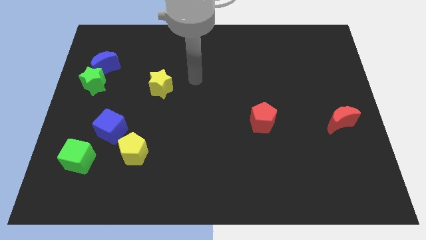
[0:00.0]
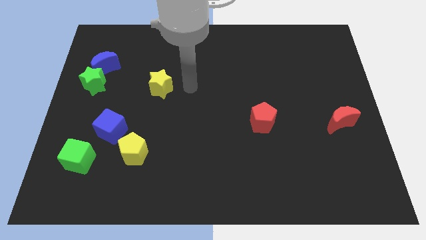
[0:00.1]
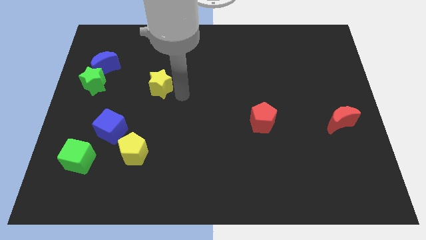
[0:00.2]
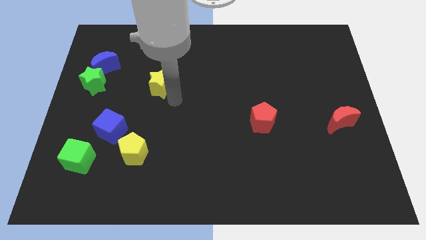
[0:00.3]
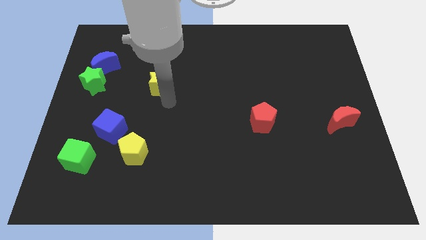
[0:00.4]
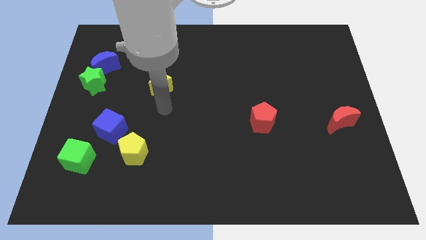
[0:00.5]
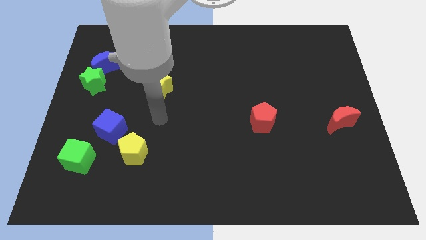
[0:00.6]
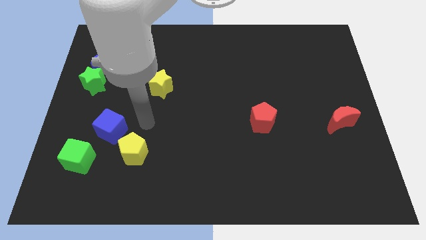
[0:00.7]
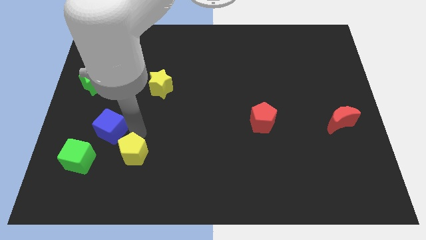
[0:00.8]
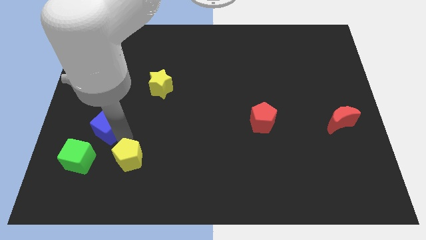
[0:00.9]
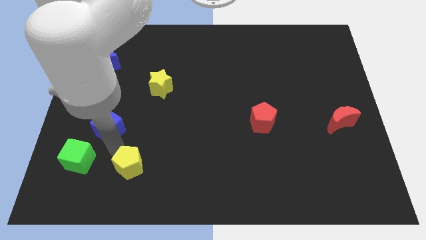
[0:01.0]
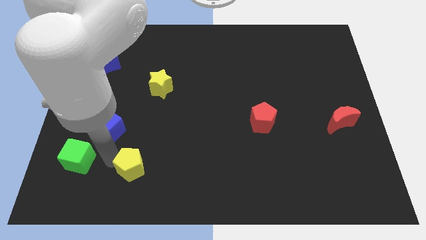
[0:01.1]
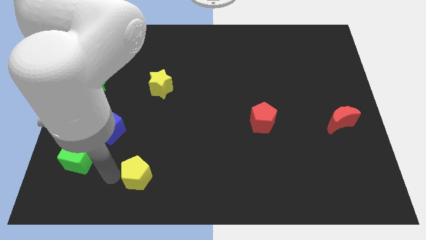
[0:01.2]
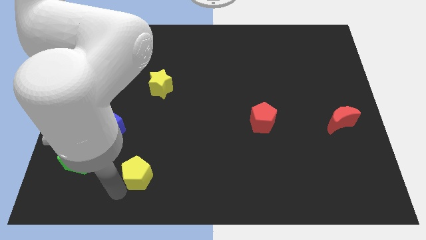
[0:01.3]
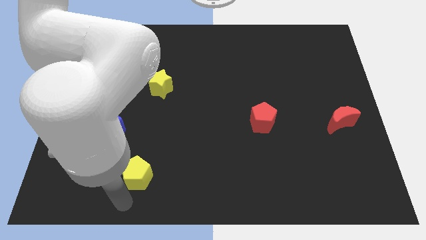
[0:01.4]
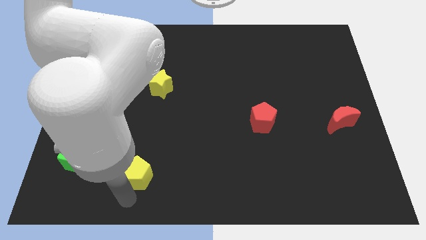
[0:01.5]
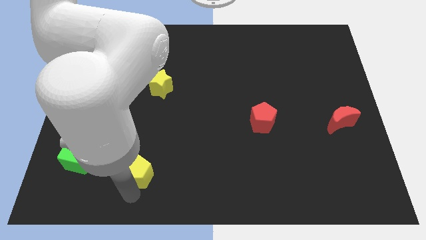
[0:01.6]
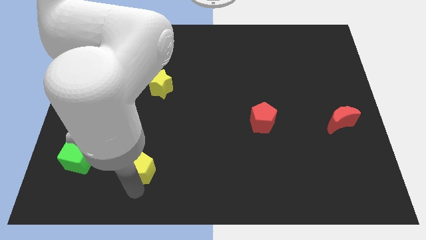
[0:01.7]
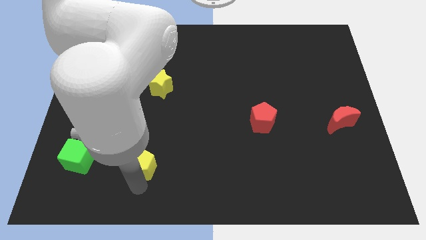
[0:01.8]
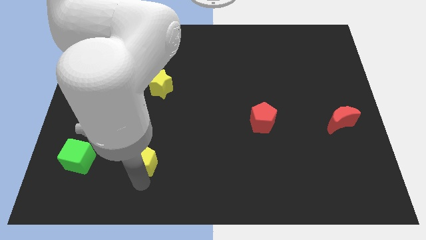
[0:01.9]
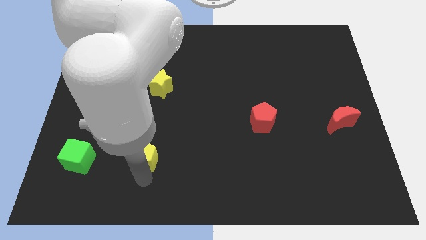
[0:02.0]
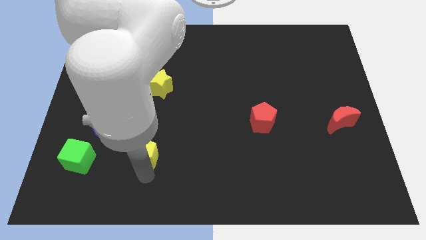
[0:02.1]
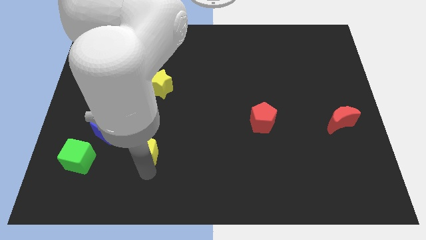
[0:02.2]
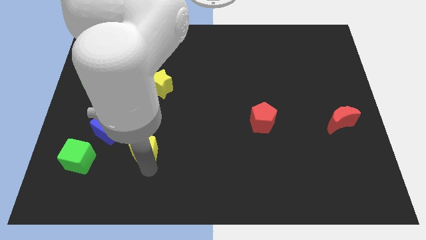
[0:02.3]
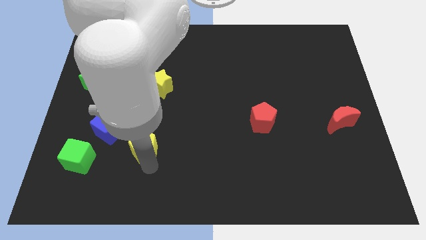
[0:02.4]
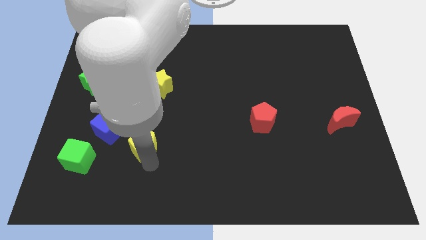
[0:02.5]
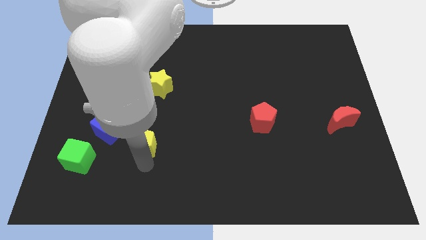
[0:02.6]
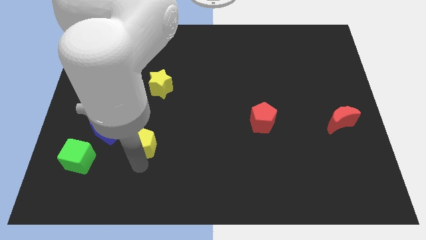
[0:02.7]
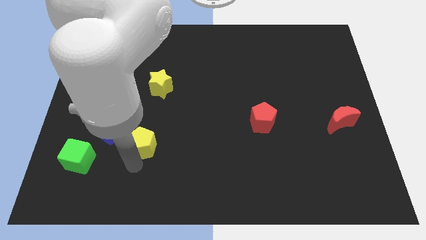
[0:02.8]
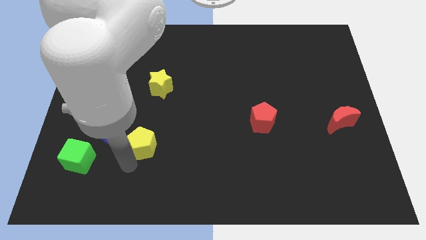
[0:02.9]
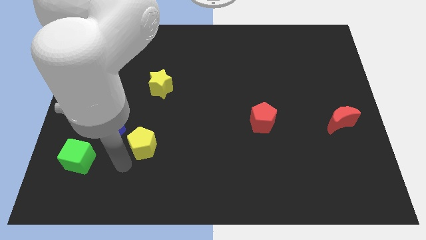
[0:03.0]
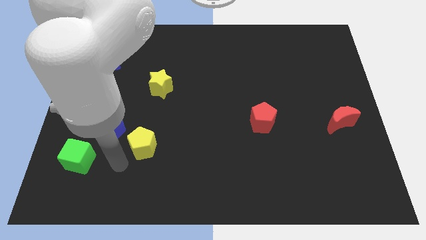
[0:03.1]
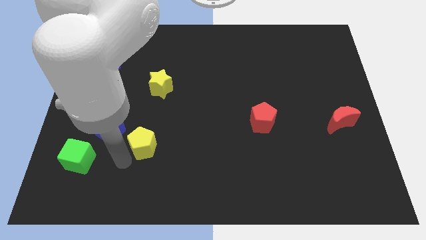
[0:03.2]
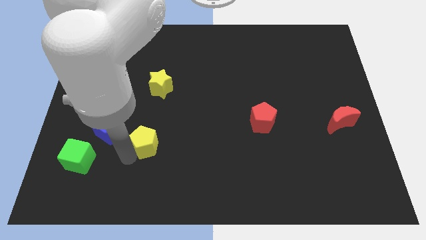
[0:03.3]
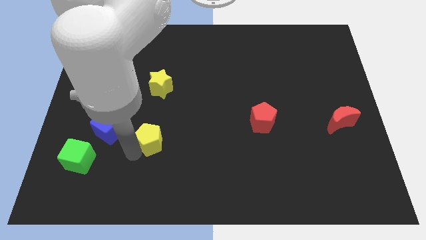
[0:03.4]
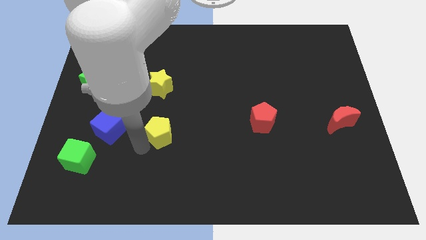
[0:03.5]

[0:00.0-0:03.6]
push the yellow pentagon upwards and then right slightly

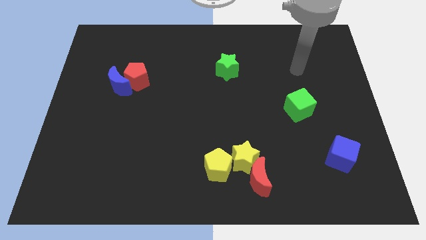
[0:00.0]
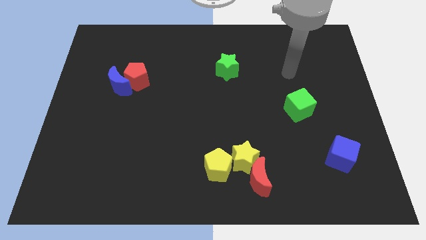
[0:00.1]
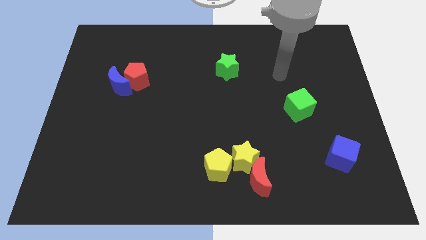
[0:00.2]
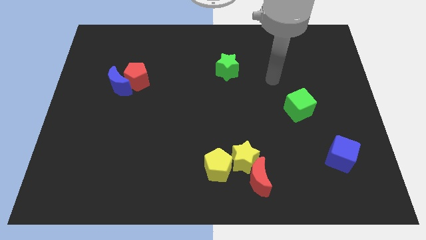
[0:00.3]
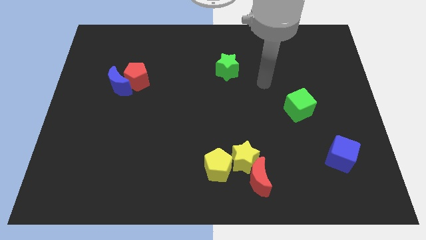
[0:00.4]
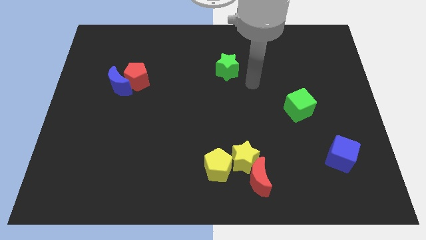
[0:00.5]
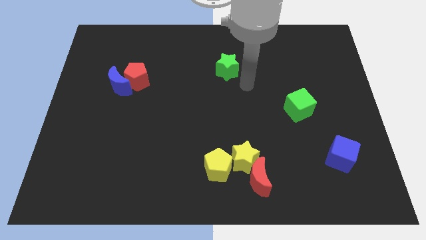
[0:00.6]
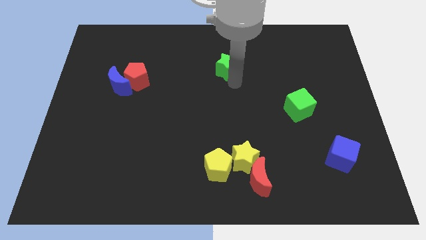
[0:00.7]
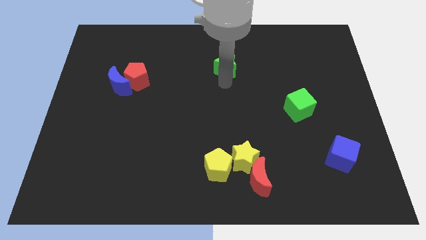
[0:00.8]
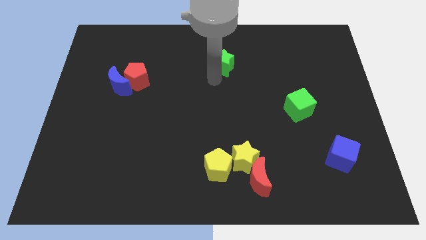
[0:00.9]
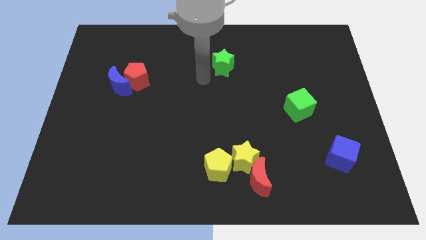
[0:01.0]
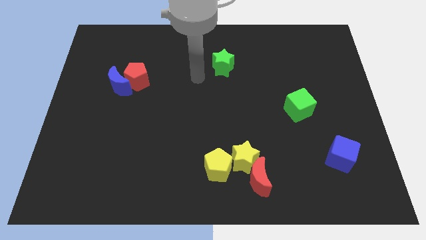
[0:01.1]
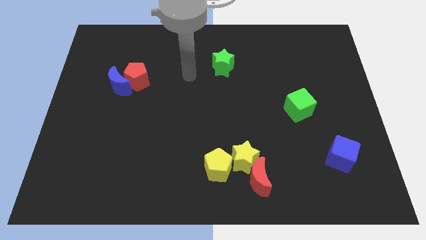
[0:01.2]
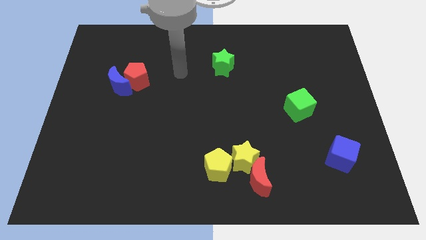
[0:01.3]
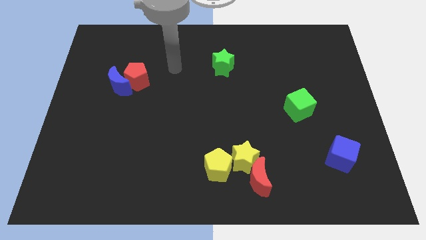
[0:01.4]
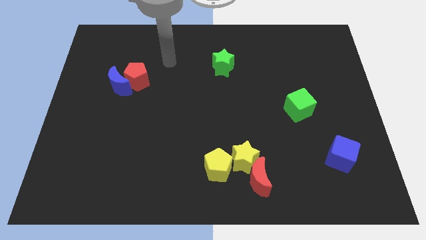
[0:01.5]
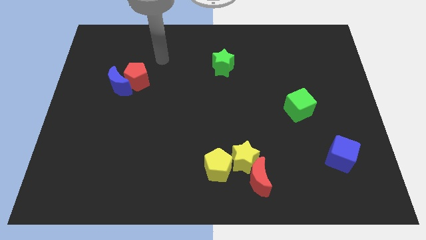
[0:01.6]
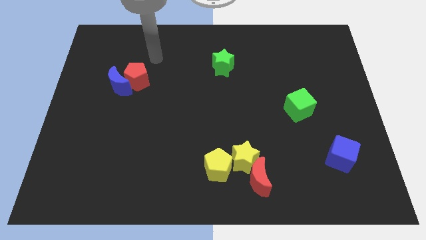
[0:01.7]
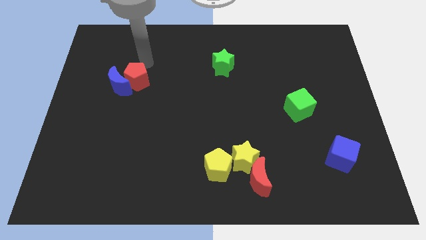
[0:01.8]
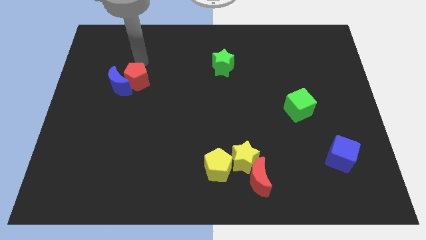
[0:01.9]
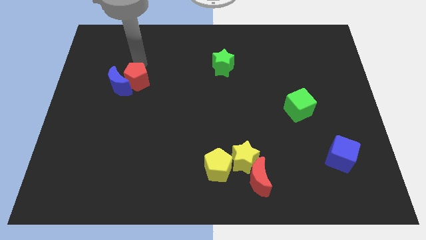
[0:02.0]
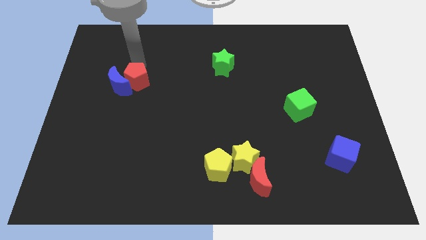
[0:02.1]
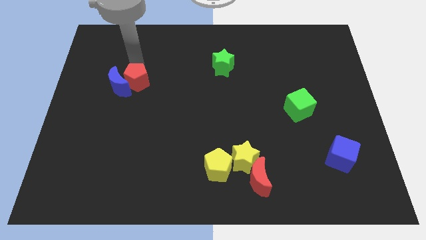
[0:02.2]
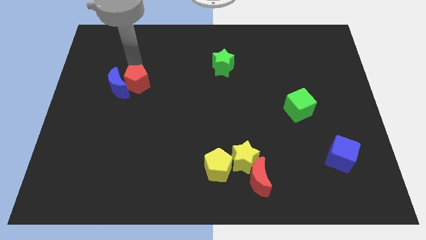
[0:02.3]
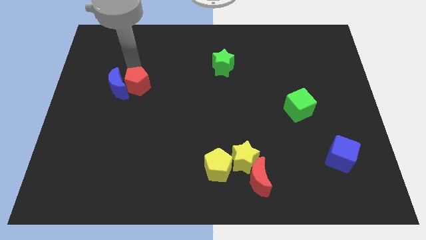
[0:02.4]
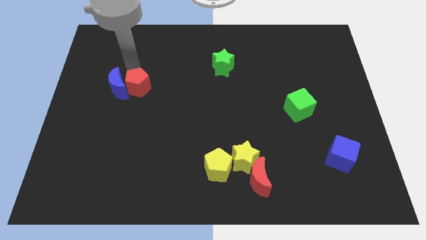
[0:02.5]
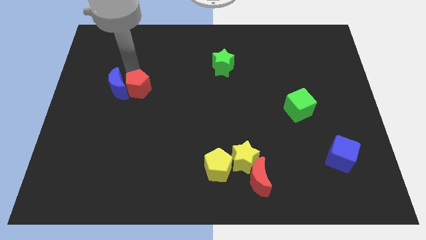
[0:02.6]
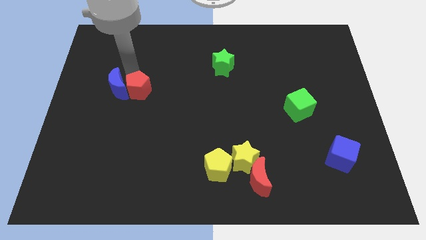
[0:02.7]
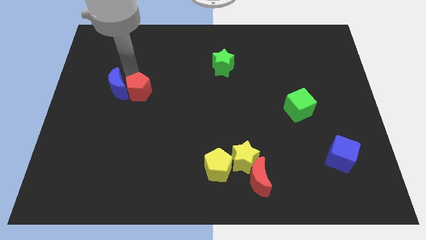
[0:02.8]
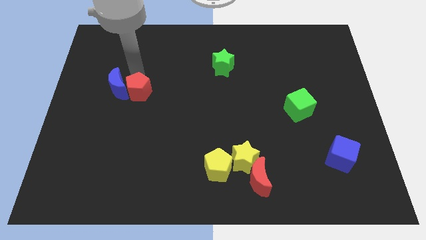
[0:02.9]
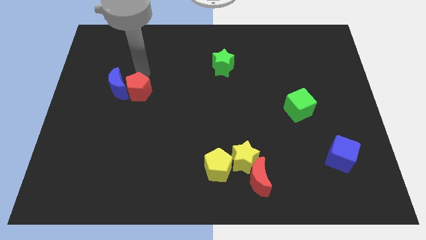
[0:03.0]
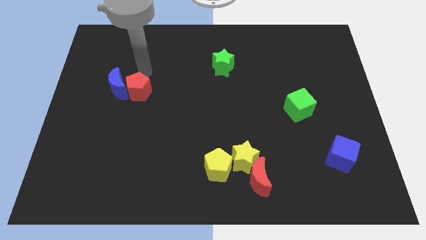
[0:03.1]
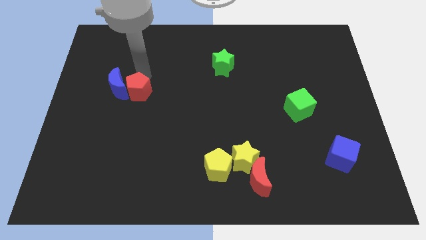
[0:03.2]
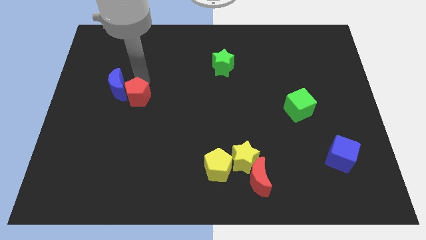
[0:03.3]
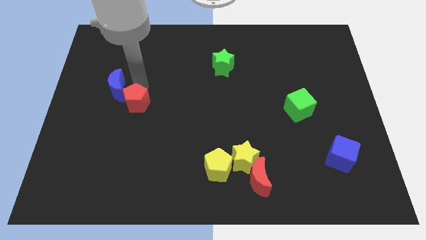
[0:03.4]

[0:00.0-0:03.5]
slide the red pentagon a little bit down

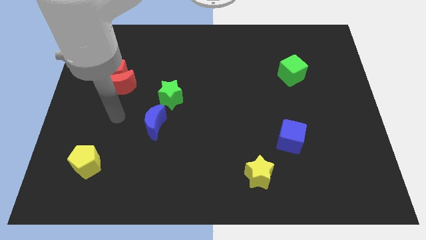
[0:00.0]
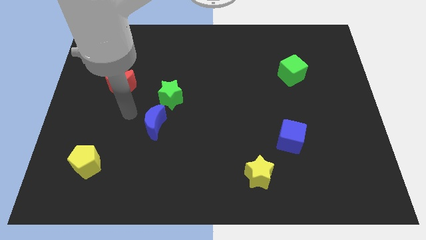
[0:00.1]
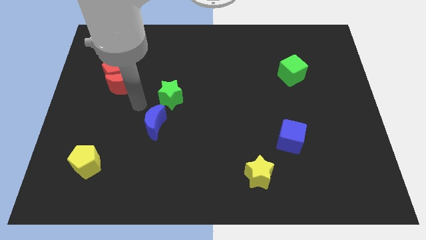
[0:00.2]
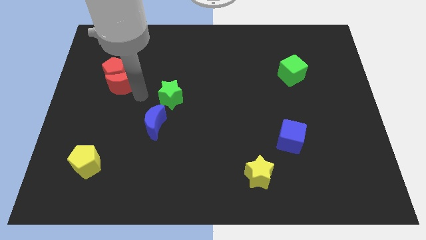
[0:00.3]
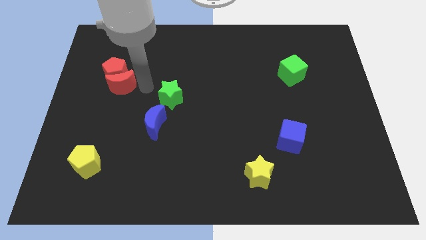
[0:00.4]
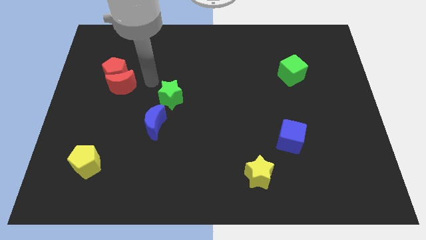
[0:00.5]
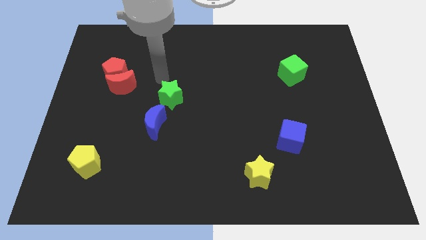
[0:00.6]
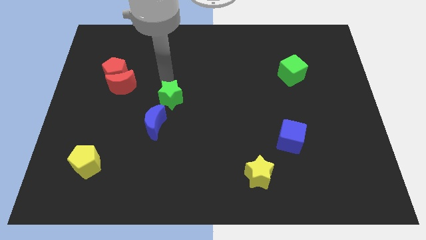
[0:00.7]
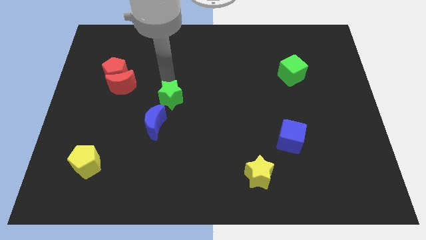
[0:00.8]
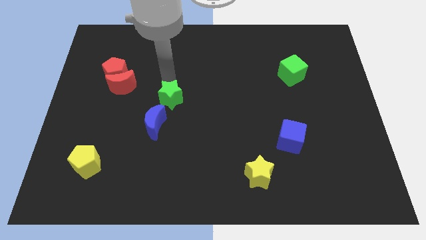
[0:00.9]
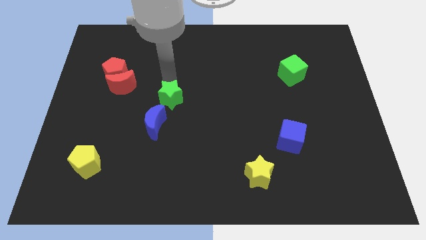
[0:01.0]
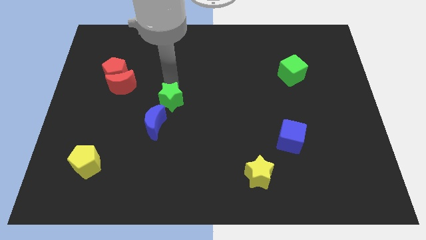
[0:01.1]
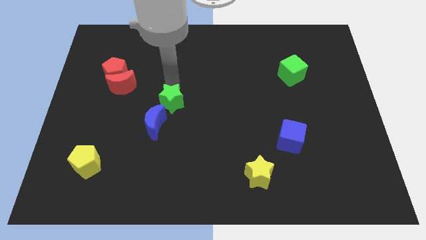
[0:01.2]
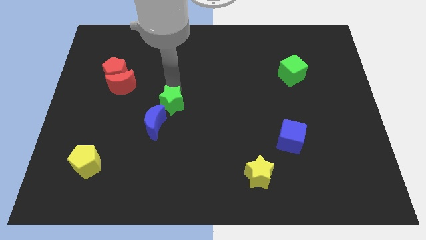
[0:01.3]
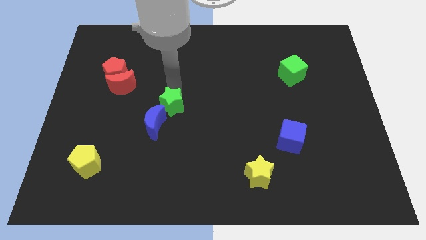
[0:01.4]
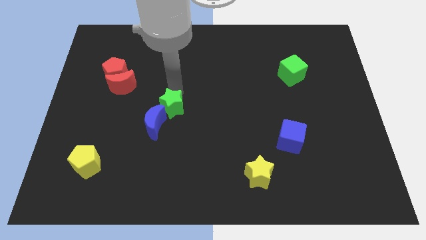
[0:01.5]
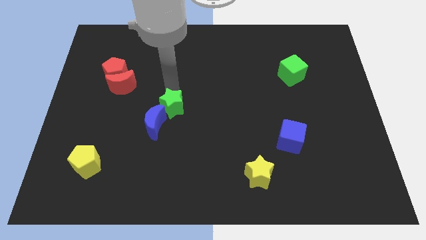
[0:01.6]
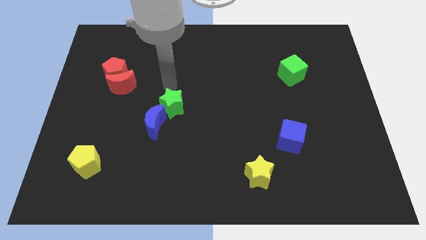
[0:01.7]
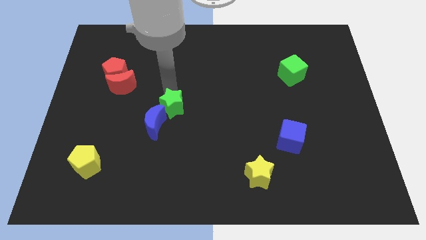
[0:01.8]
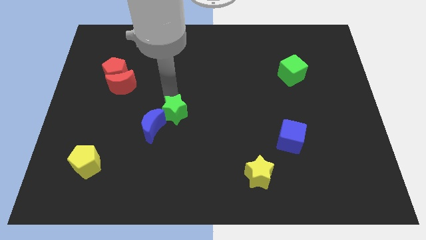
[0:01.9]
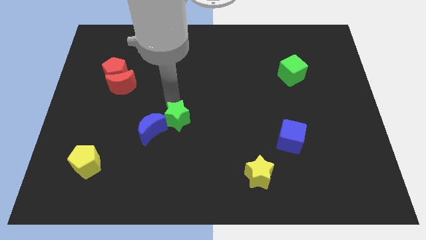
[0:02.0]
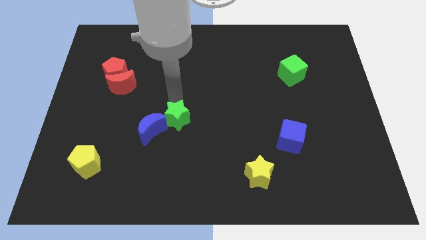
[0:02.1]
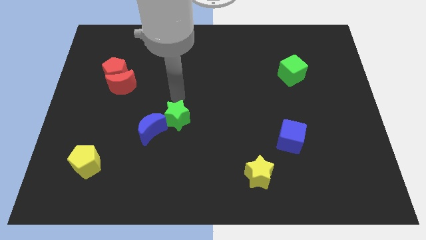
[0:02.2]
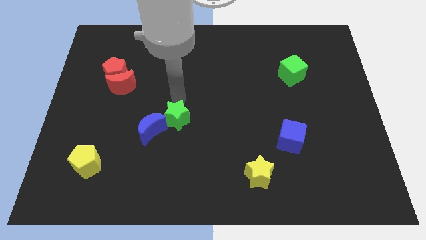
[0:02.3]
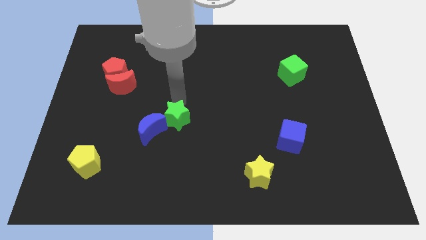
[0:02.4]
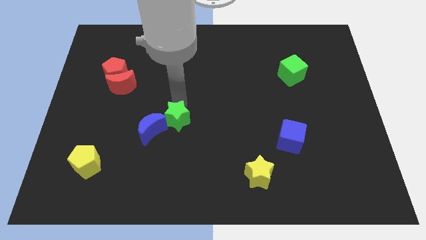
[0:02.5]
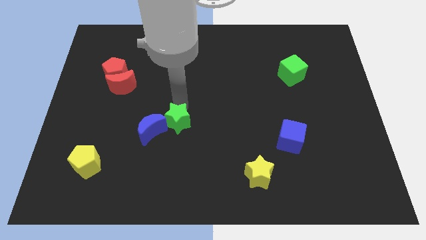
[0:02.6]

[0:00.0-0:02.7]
move the green star a little down
